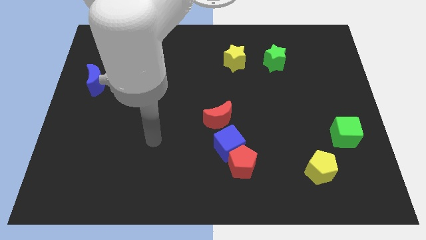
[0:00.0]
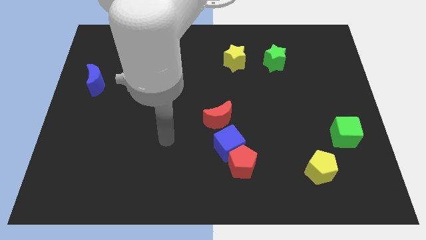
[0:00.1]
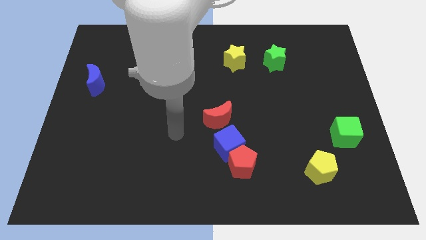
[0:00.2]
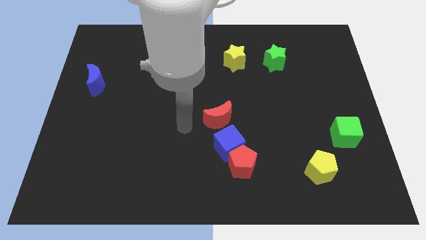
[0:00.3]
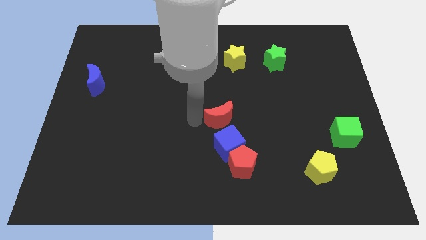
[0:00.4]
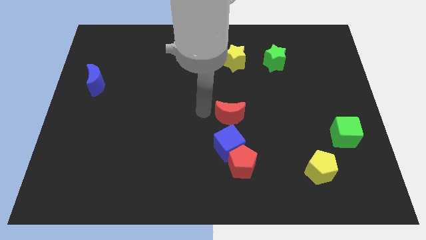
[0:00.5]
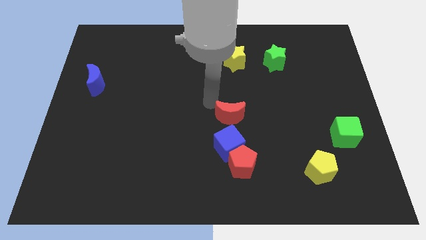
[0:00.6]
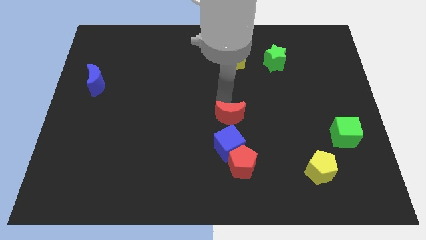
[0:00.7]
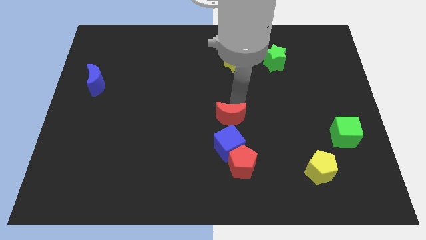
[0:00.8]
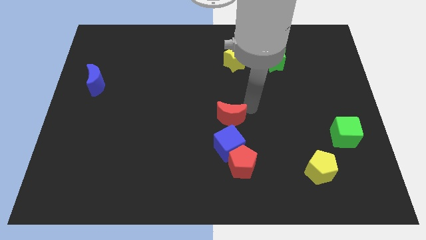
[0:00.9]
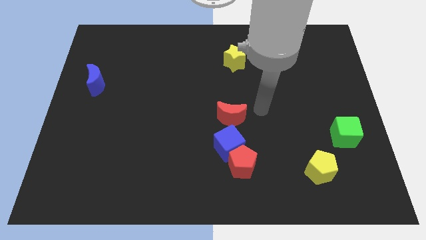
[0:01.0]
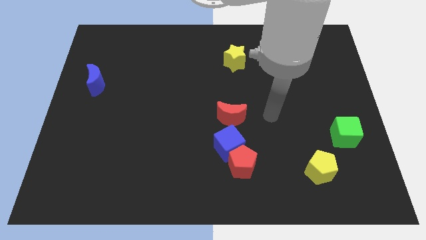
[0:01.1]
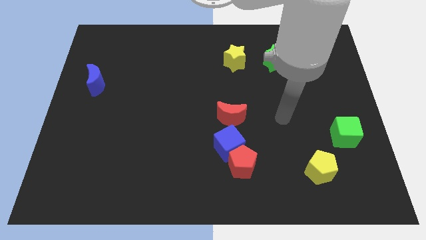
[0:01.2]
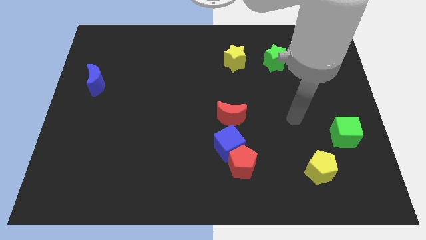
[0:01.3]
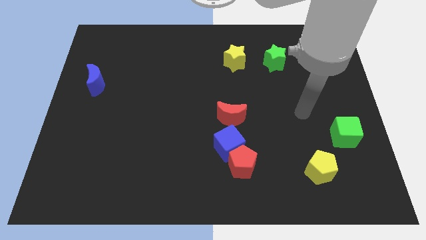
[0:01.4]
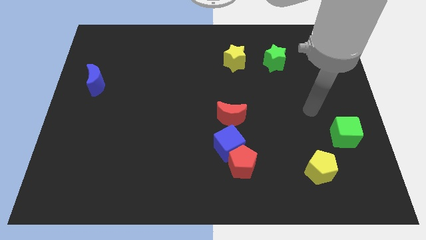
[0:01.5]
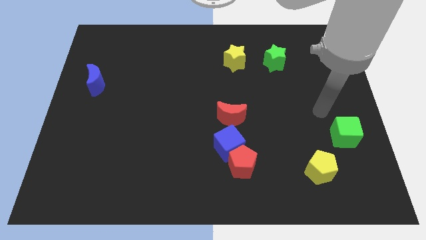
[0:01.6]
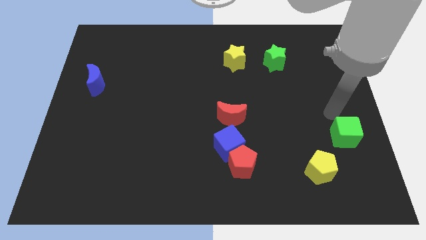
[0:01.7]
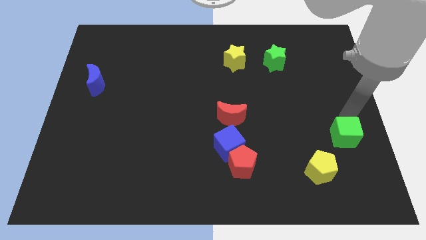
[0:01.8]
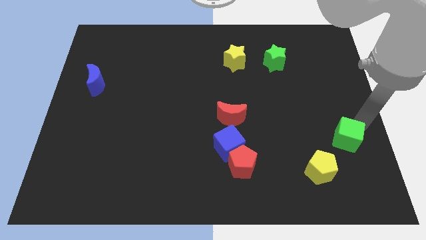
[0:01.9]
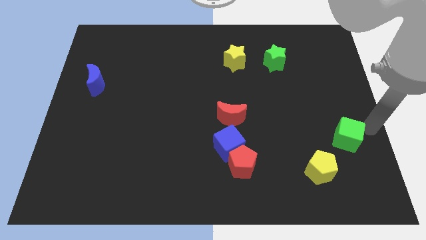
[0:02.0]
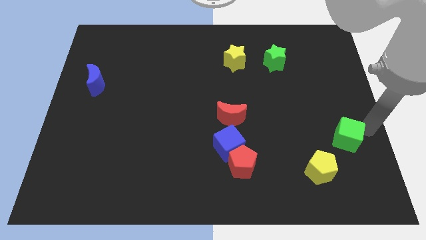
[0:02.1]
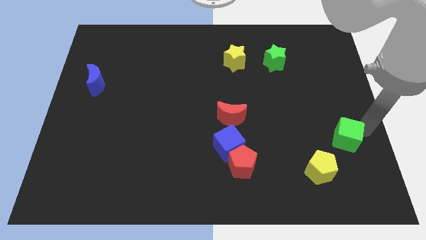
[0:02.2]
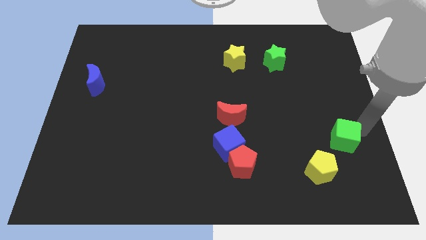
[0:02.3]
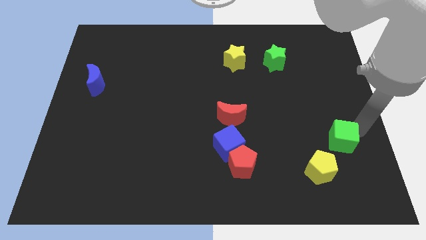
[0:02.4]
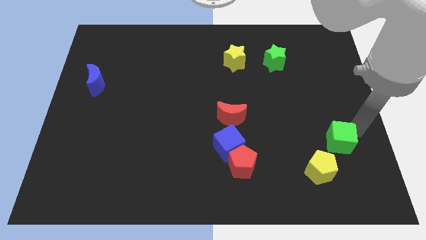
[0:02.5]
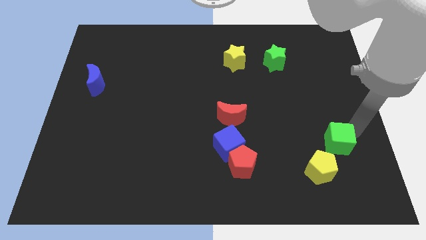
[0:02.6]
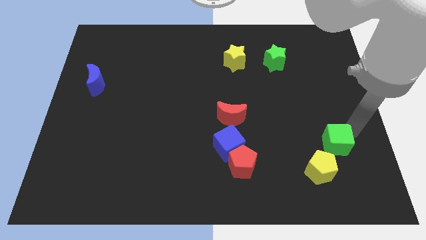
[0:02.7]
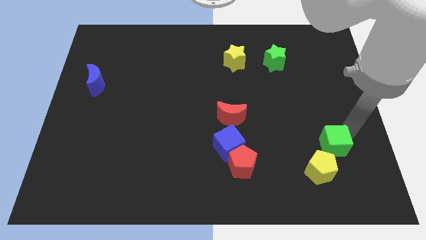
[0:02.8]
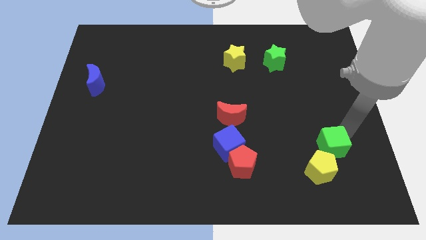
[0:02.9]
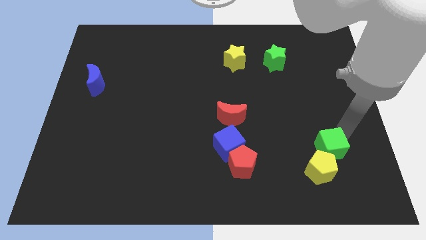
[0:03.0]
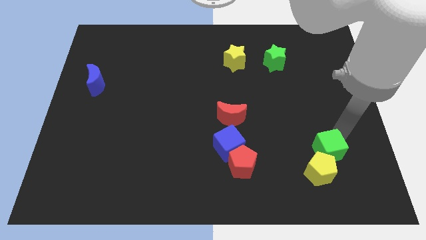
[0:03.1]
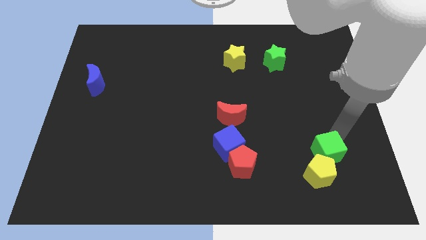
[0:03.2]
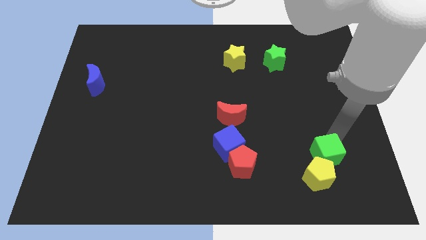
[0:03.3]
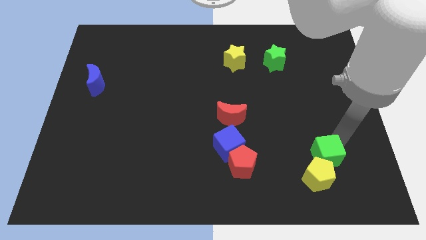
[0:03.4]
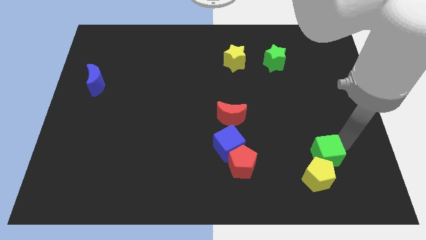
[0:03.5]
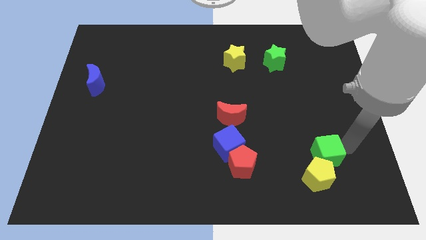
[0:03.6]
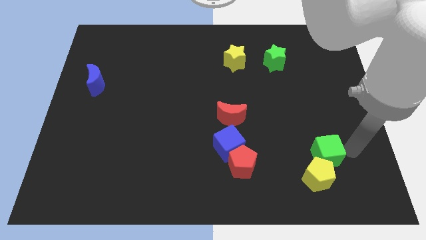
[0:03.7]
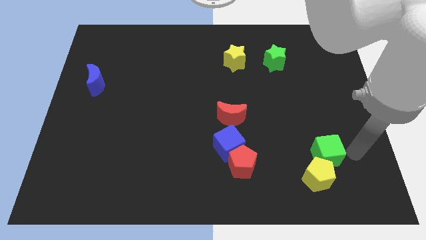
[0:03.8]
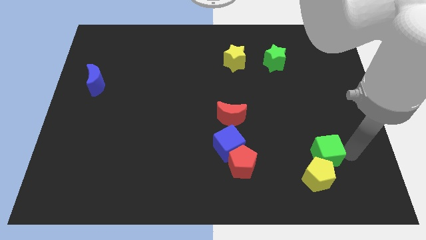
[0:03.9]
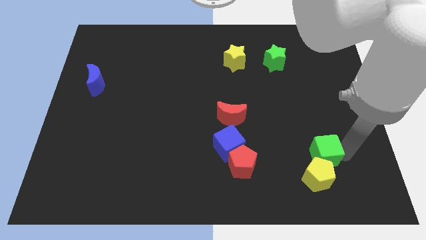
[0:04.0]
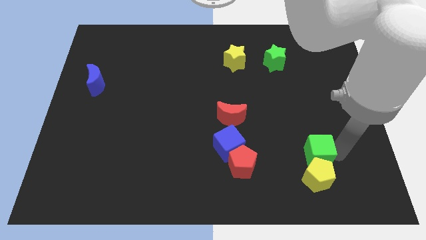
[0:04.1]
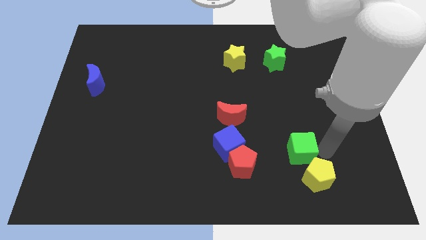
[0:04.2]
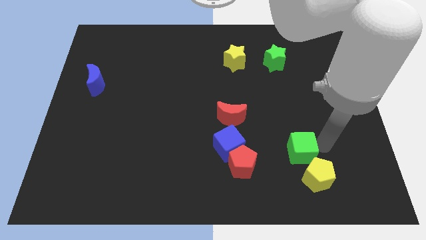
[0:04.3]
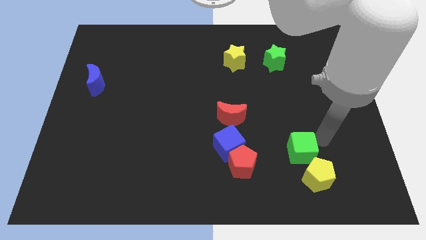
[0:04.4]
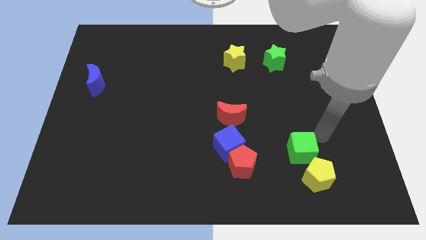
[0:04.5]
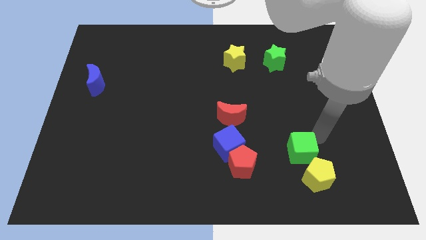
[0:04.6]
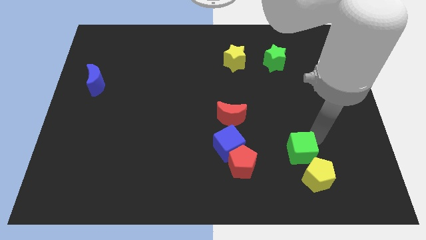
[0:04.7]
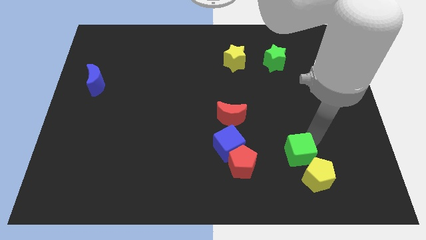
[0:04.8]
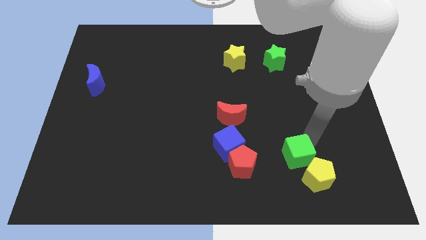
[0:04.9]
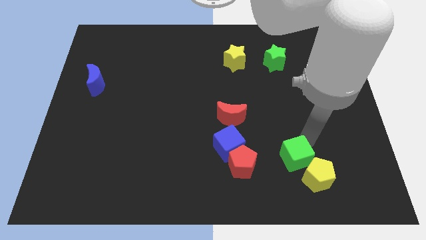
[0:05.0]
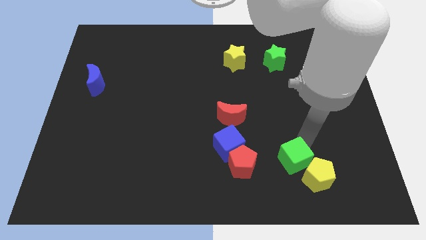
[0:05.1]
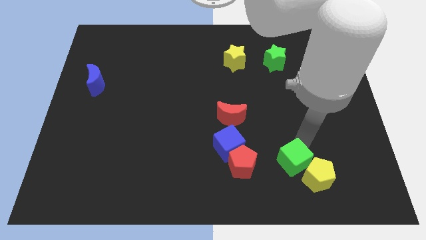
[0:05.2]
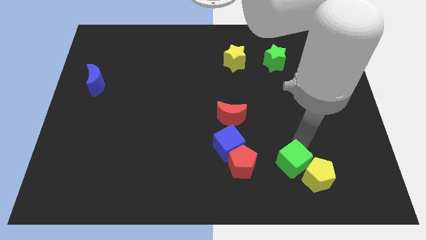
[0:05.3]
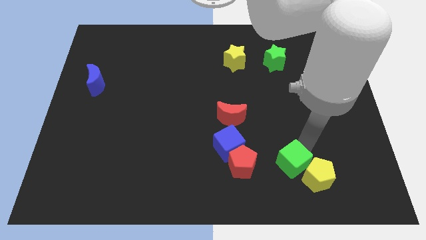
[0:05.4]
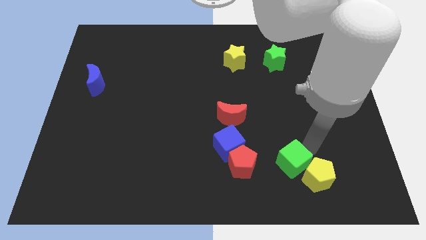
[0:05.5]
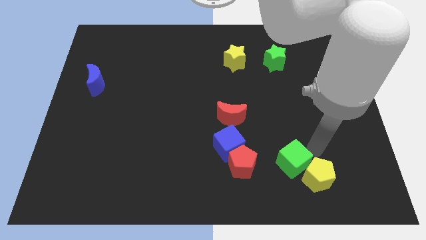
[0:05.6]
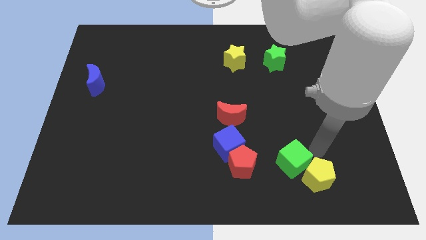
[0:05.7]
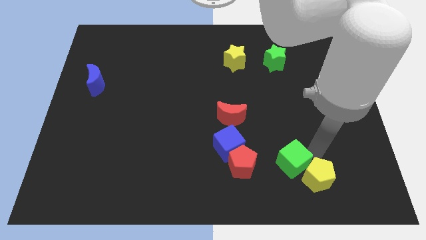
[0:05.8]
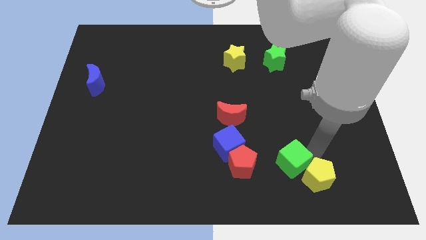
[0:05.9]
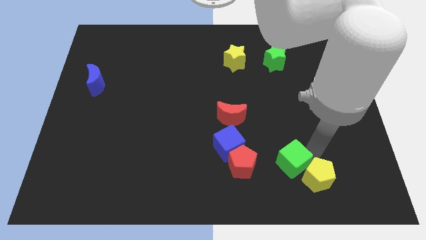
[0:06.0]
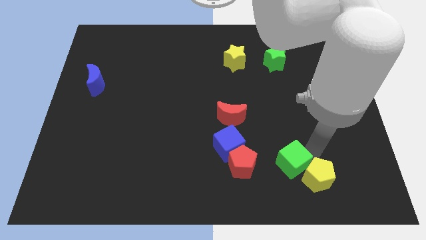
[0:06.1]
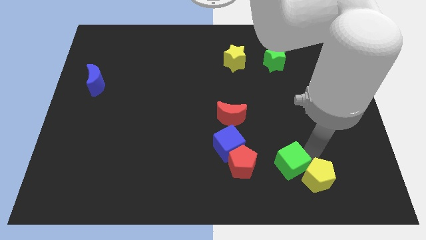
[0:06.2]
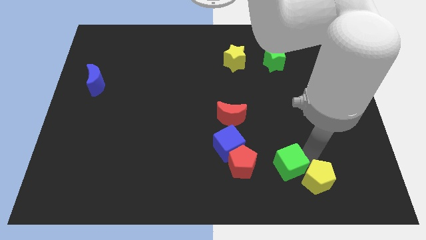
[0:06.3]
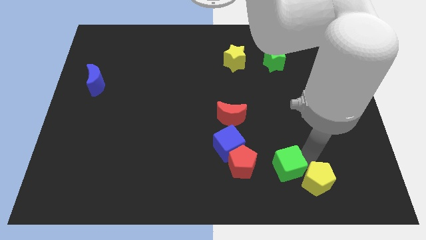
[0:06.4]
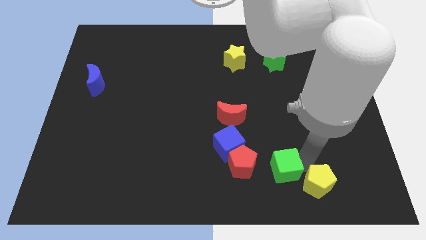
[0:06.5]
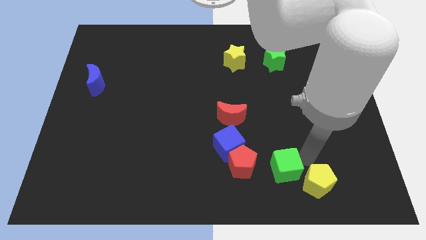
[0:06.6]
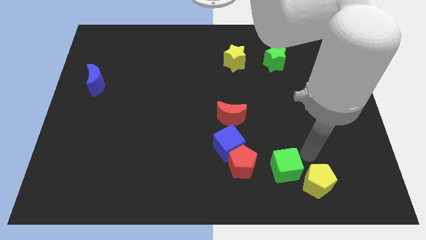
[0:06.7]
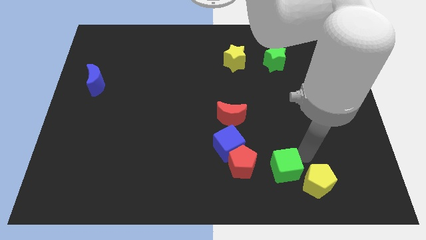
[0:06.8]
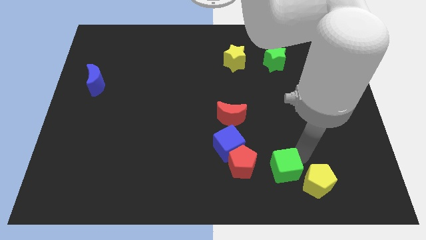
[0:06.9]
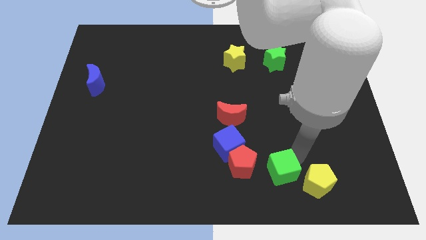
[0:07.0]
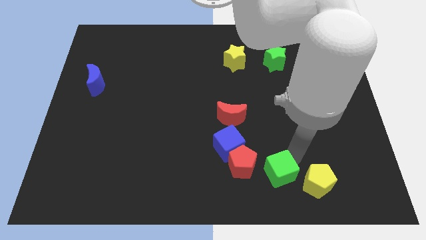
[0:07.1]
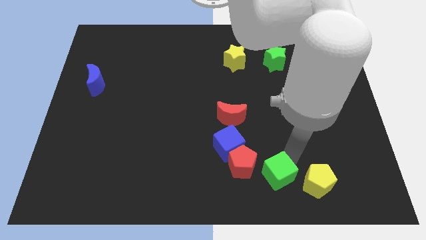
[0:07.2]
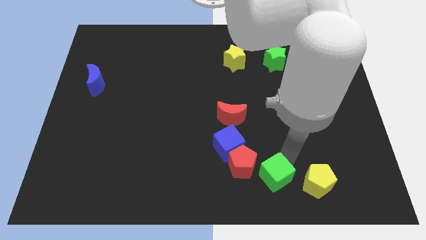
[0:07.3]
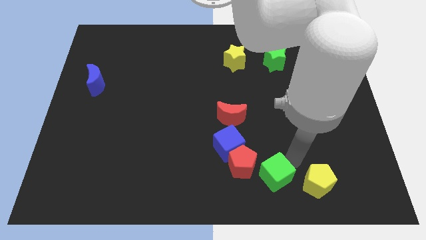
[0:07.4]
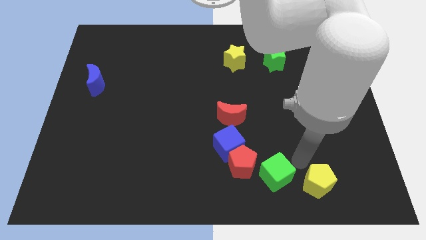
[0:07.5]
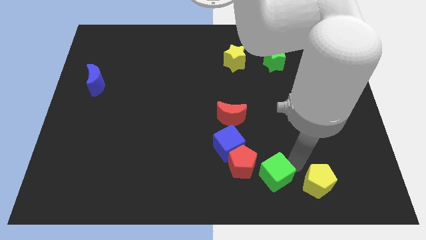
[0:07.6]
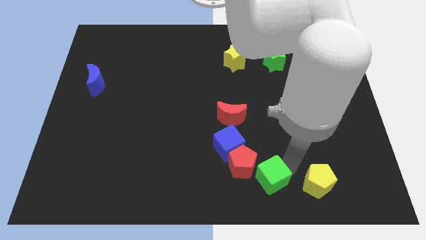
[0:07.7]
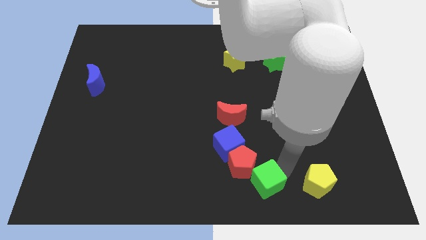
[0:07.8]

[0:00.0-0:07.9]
move the green cube to the bottom side
